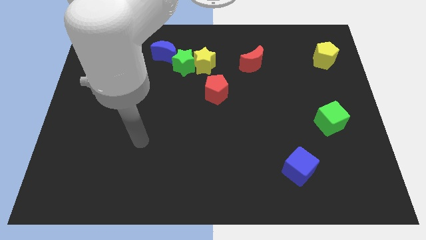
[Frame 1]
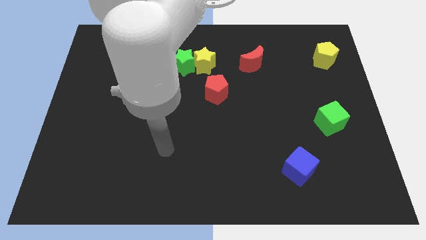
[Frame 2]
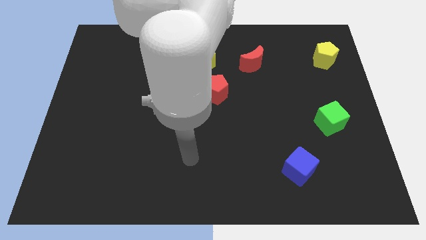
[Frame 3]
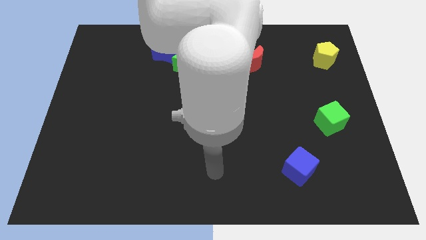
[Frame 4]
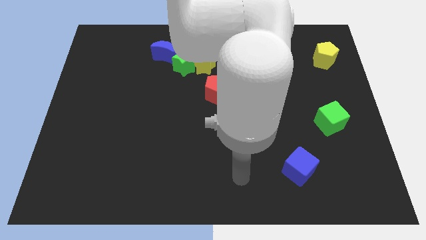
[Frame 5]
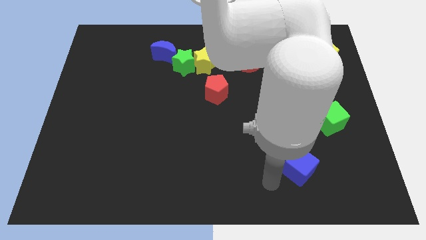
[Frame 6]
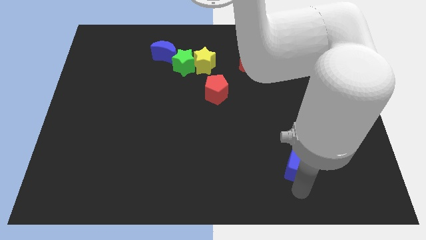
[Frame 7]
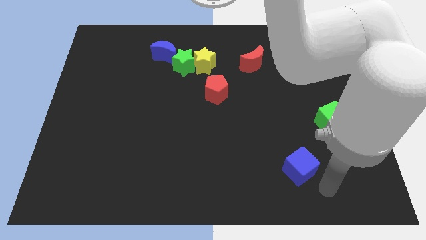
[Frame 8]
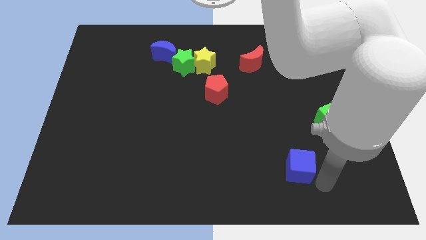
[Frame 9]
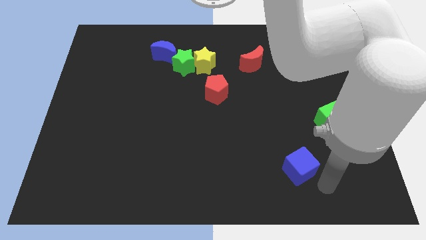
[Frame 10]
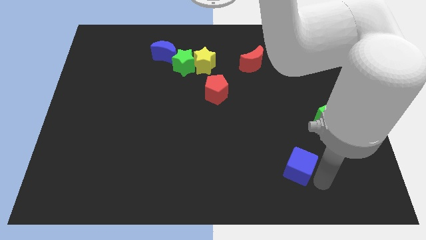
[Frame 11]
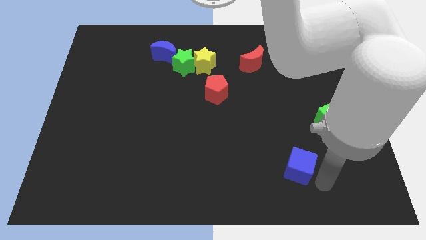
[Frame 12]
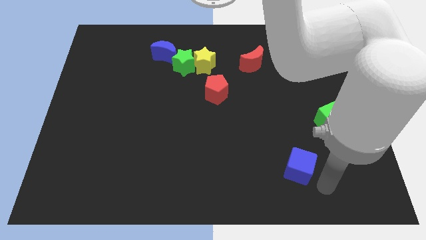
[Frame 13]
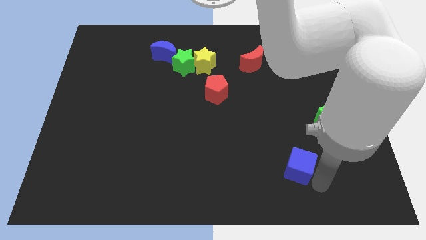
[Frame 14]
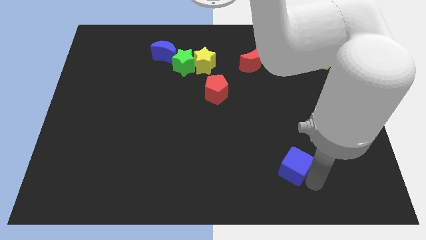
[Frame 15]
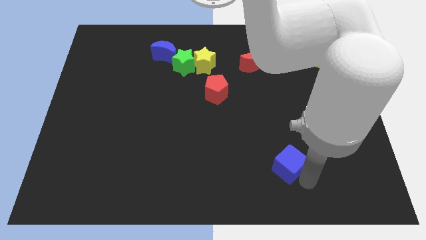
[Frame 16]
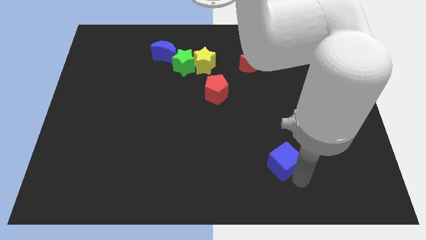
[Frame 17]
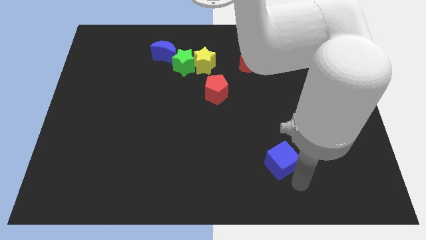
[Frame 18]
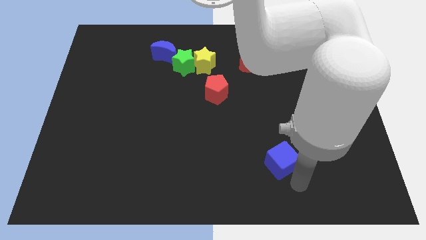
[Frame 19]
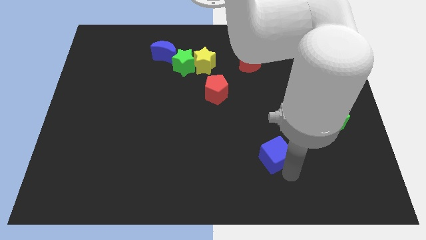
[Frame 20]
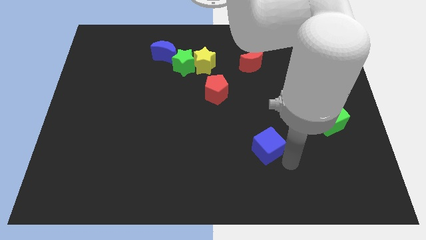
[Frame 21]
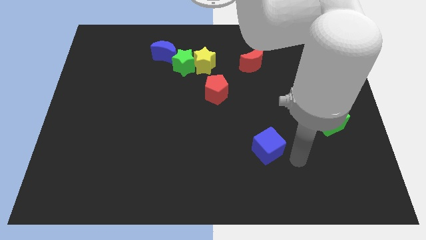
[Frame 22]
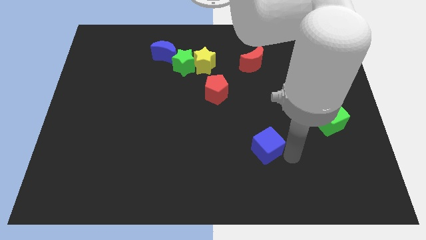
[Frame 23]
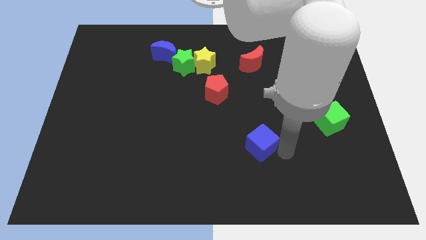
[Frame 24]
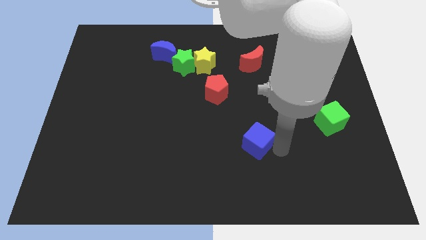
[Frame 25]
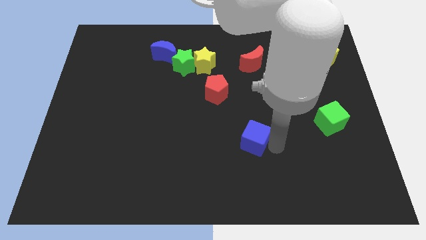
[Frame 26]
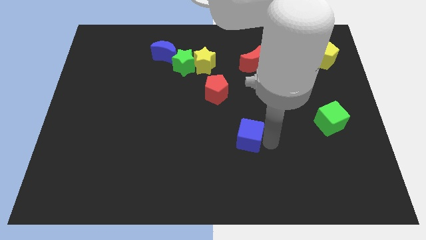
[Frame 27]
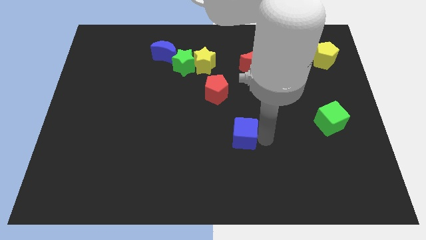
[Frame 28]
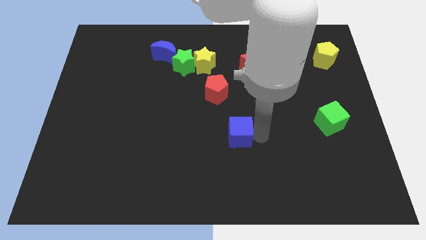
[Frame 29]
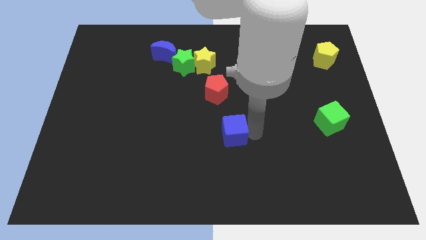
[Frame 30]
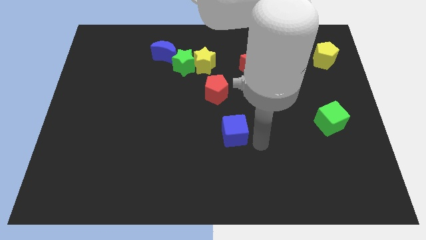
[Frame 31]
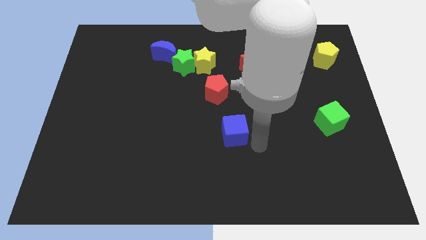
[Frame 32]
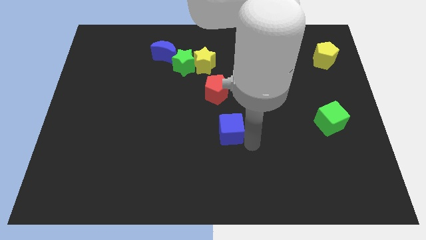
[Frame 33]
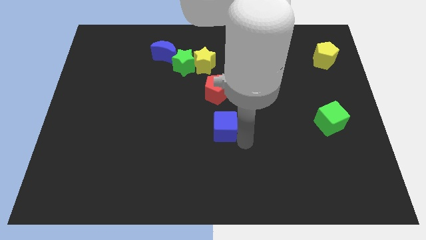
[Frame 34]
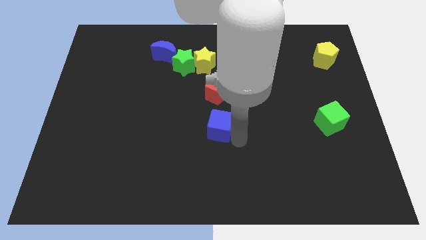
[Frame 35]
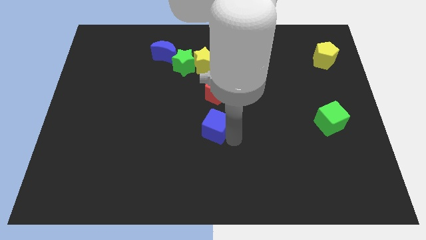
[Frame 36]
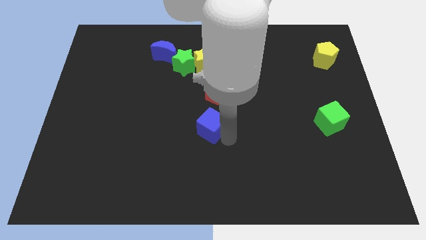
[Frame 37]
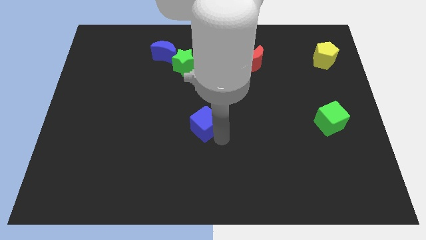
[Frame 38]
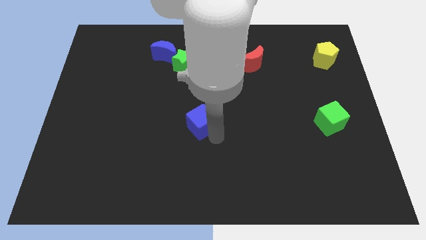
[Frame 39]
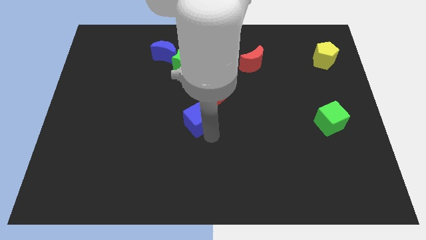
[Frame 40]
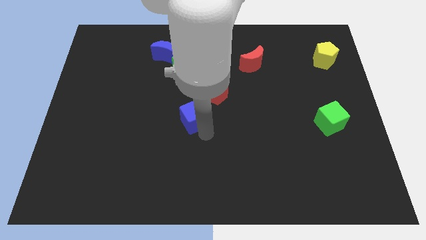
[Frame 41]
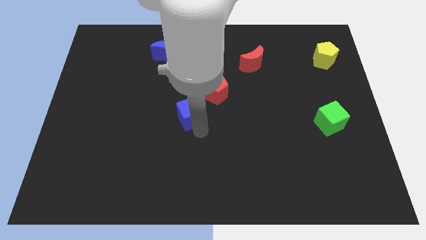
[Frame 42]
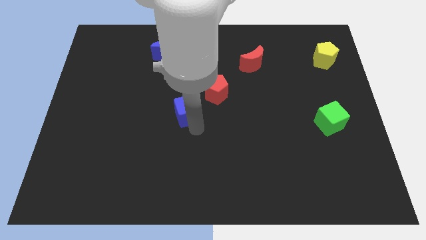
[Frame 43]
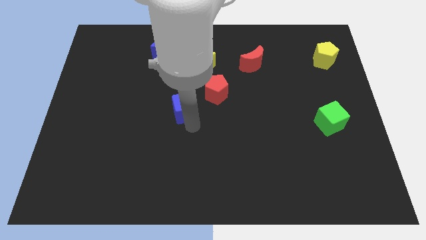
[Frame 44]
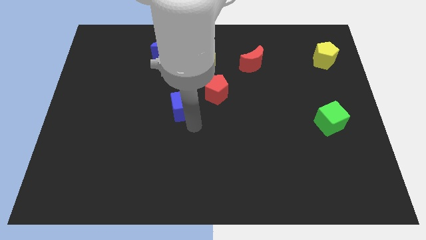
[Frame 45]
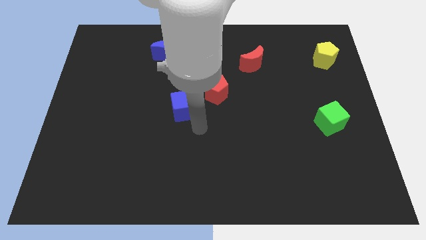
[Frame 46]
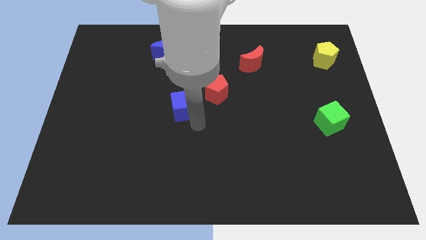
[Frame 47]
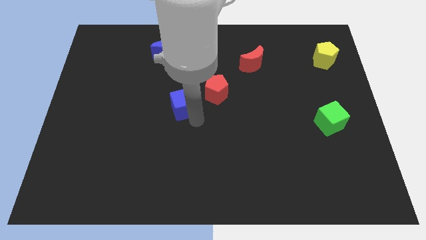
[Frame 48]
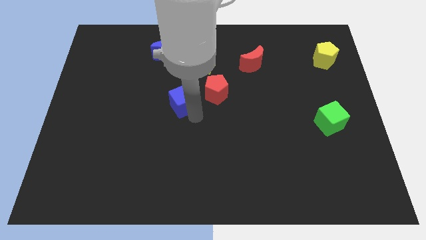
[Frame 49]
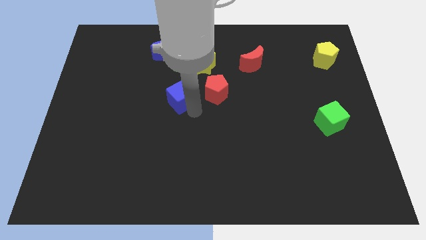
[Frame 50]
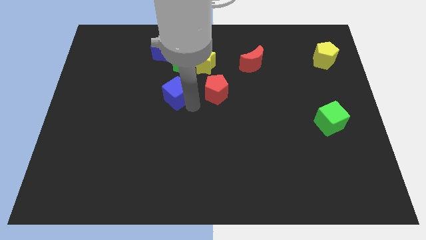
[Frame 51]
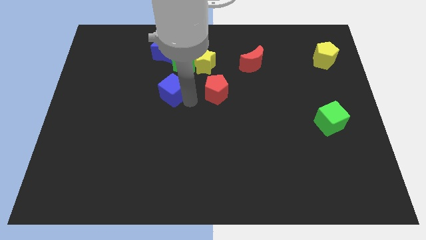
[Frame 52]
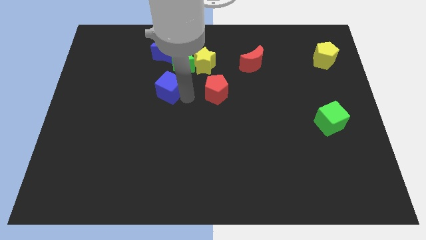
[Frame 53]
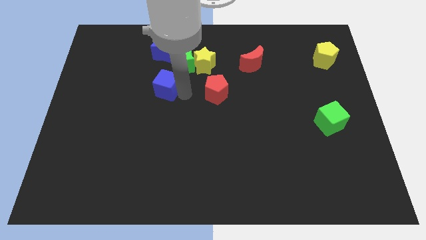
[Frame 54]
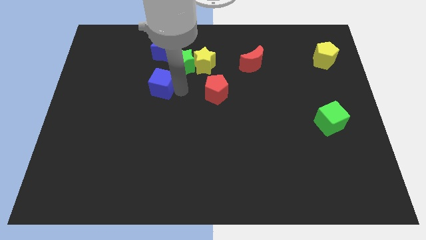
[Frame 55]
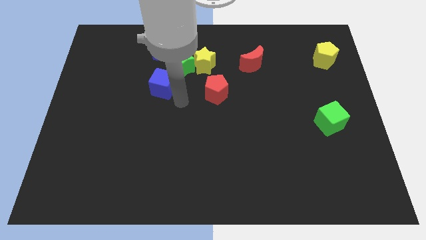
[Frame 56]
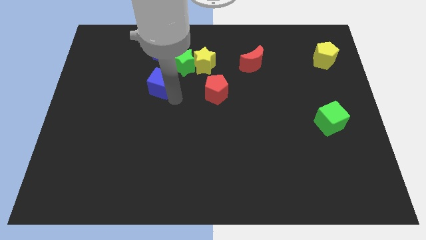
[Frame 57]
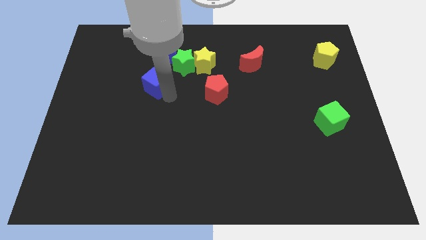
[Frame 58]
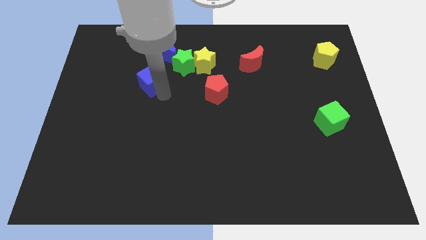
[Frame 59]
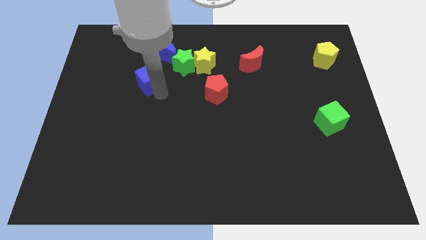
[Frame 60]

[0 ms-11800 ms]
slide the blue cube to the bottom left of the blue moon

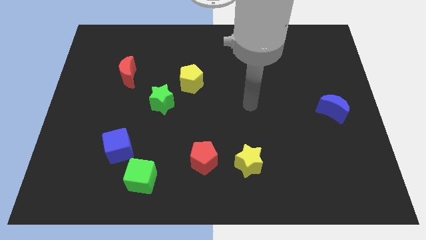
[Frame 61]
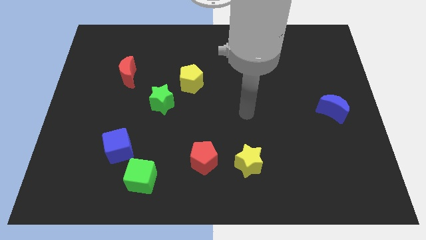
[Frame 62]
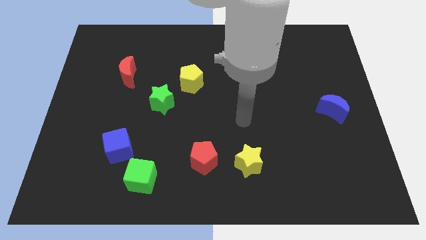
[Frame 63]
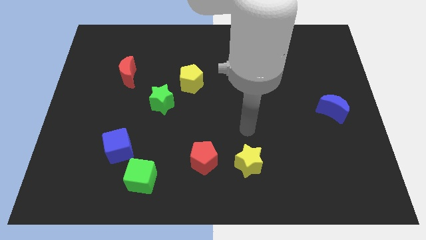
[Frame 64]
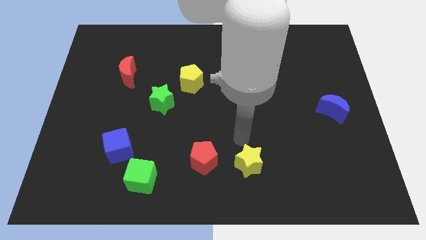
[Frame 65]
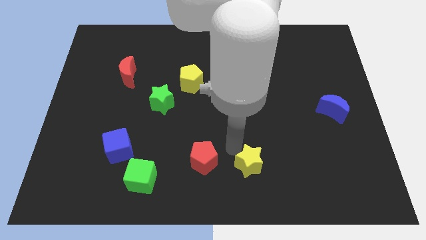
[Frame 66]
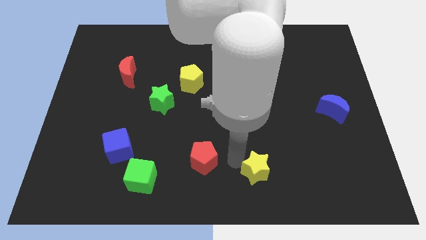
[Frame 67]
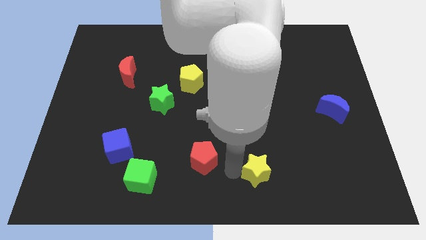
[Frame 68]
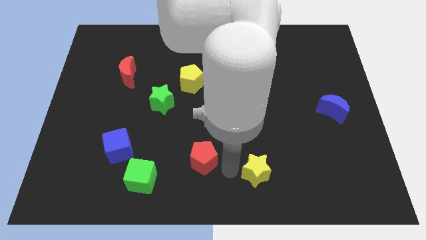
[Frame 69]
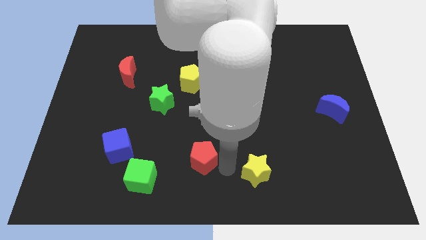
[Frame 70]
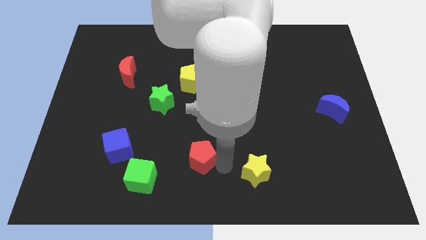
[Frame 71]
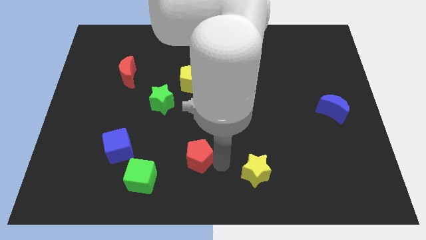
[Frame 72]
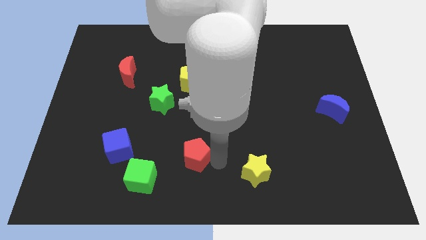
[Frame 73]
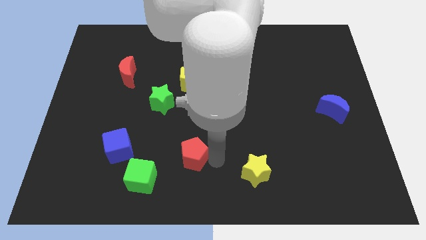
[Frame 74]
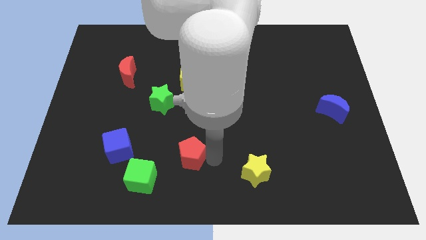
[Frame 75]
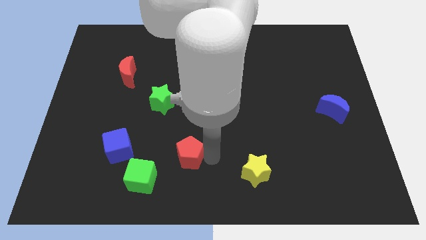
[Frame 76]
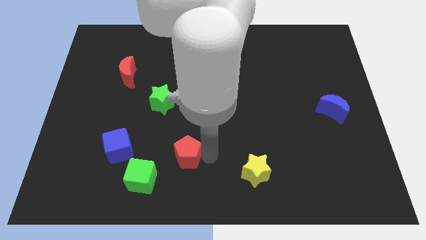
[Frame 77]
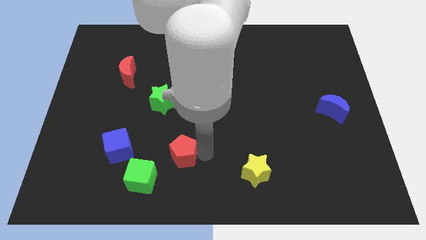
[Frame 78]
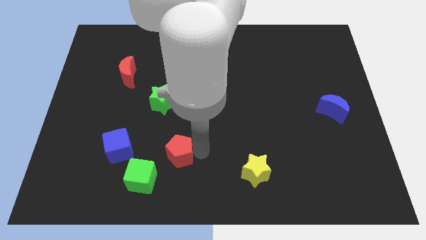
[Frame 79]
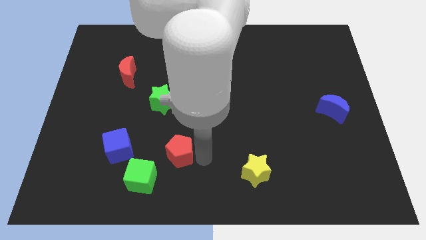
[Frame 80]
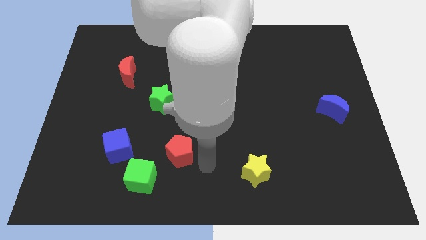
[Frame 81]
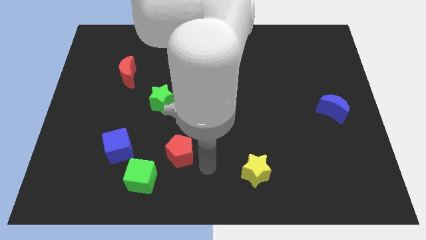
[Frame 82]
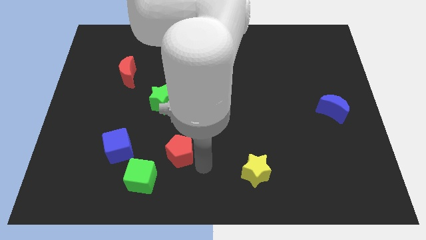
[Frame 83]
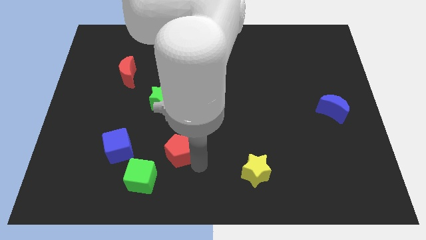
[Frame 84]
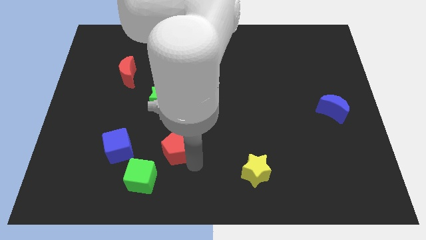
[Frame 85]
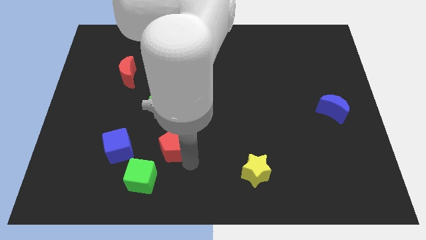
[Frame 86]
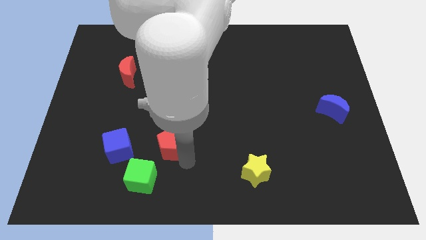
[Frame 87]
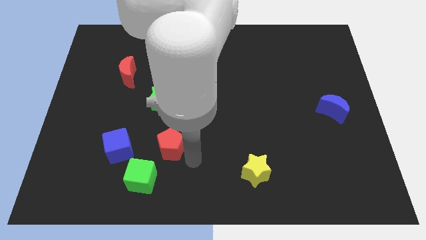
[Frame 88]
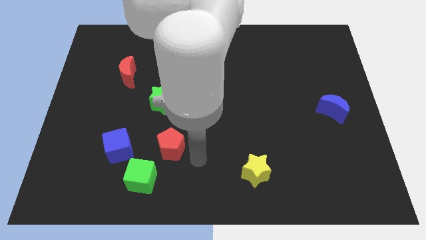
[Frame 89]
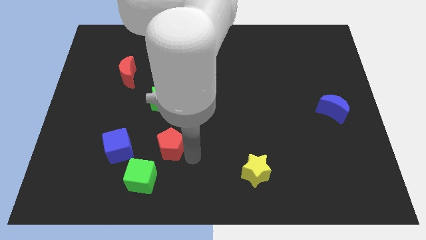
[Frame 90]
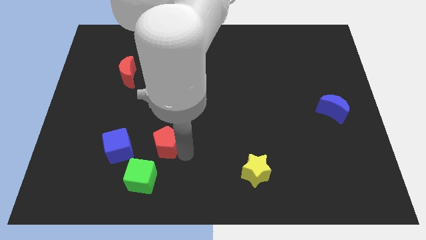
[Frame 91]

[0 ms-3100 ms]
move the red pentagon to the top of the green cube
